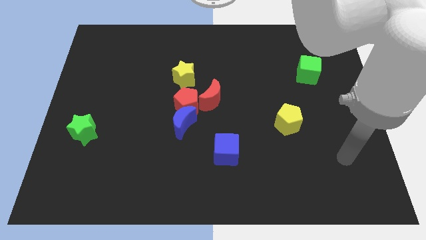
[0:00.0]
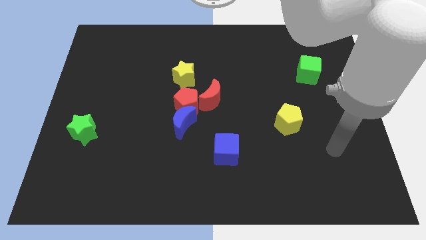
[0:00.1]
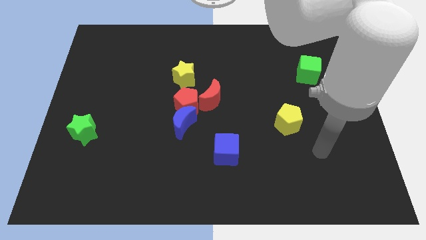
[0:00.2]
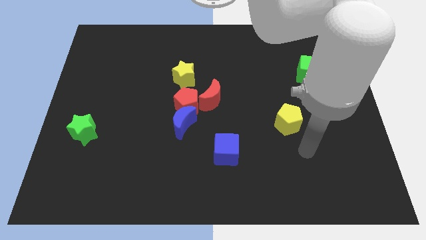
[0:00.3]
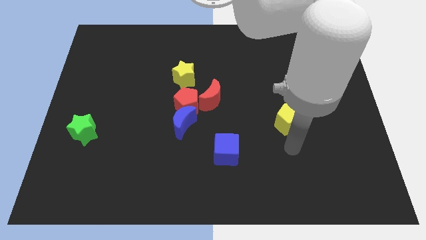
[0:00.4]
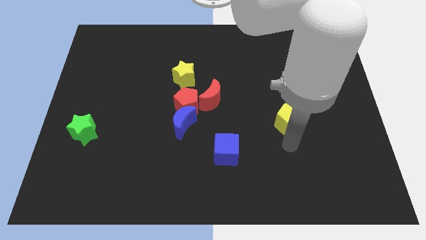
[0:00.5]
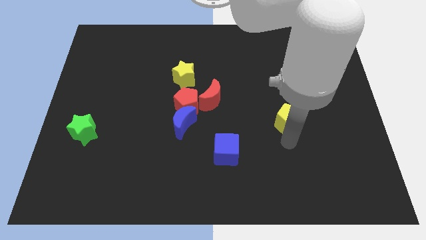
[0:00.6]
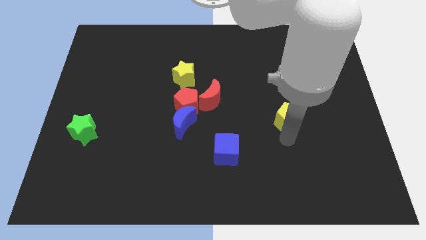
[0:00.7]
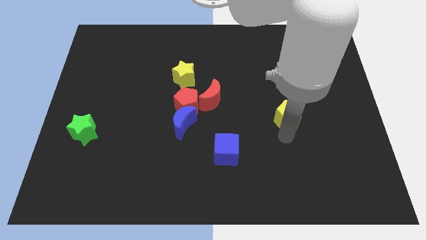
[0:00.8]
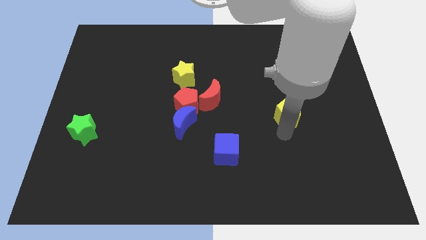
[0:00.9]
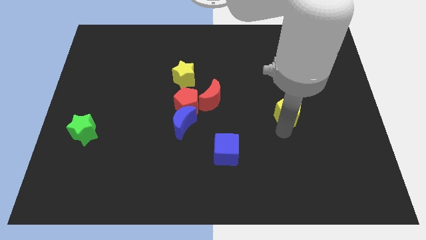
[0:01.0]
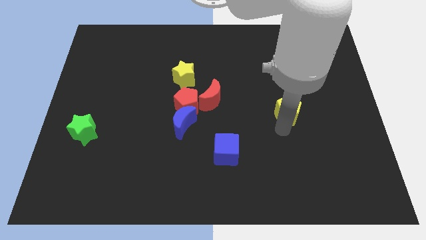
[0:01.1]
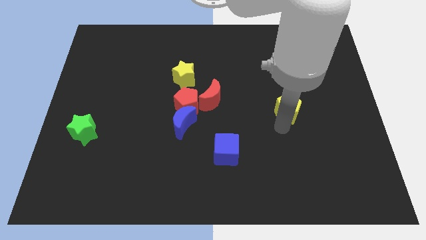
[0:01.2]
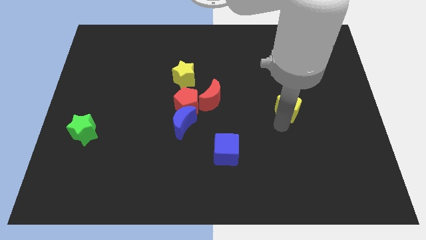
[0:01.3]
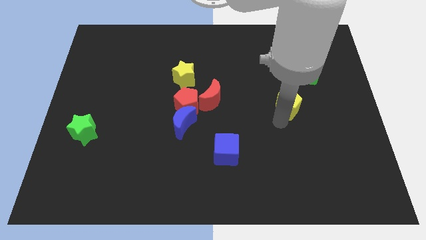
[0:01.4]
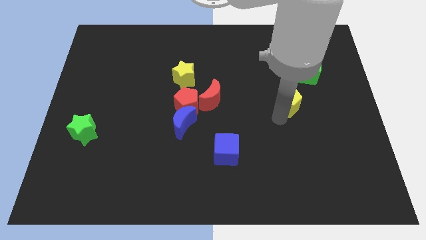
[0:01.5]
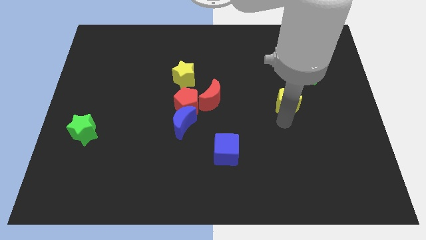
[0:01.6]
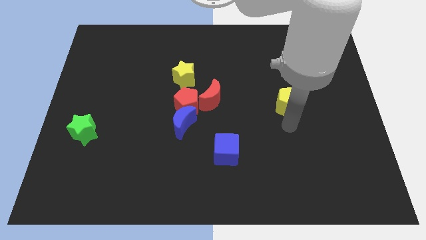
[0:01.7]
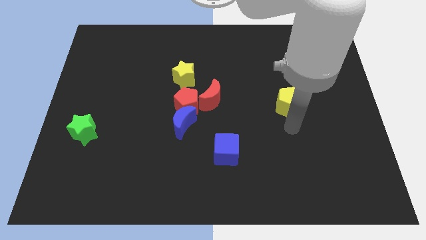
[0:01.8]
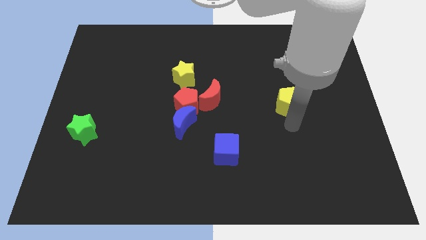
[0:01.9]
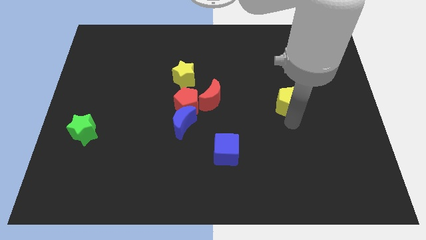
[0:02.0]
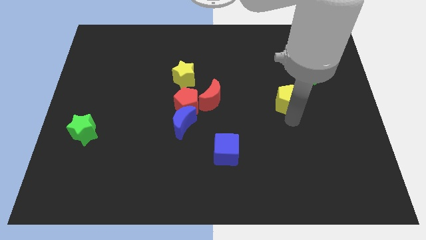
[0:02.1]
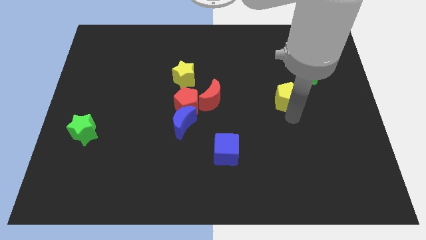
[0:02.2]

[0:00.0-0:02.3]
move the yellow pentagon up a little bit

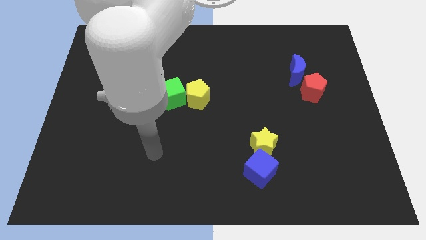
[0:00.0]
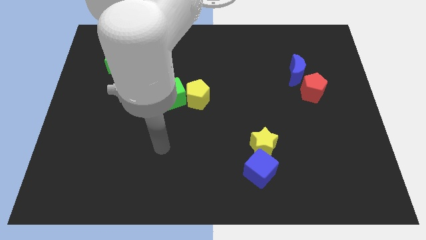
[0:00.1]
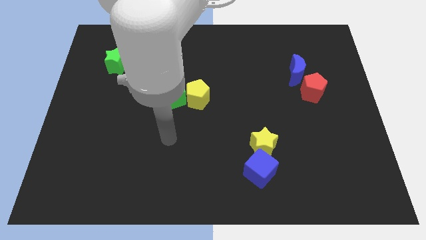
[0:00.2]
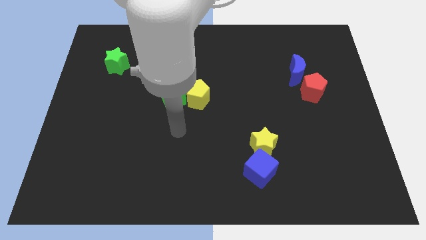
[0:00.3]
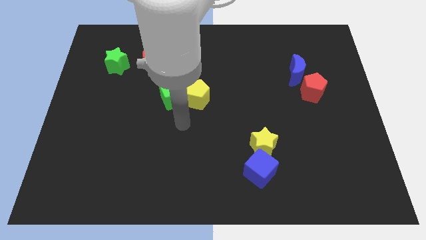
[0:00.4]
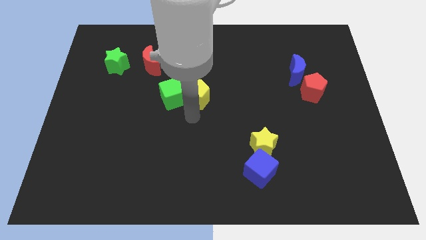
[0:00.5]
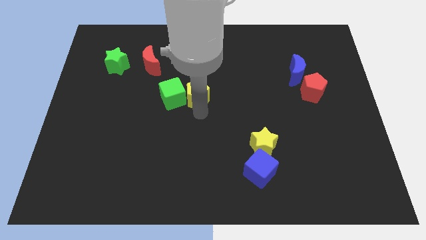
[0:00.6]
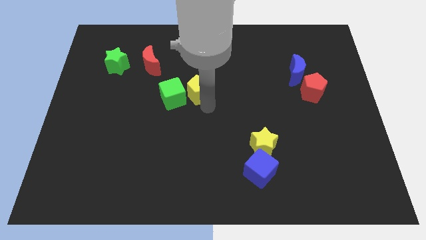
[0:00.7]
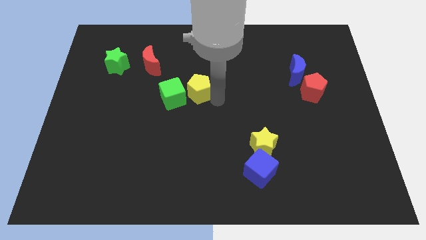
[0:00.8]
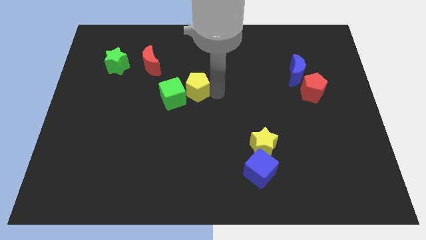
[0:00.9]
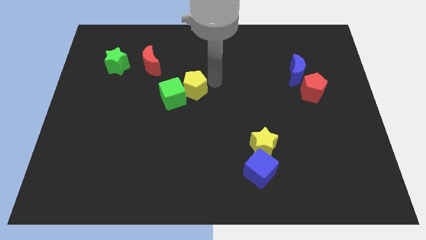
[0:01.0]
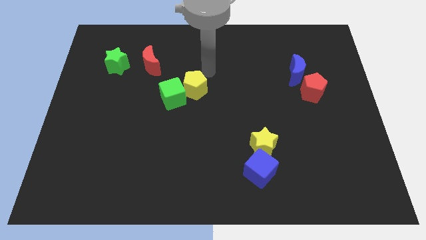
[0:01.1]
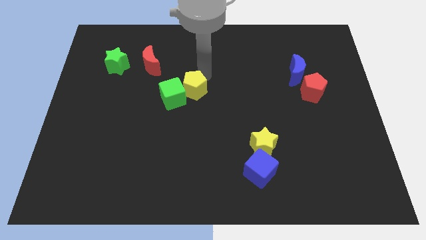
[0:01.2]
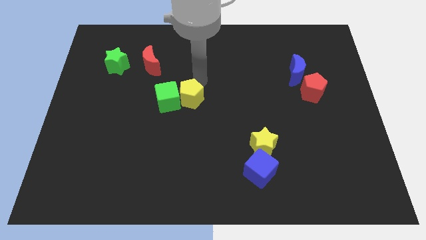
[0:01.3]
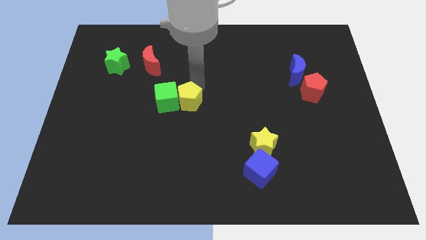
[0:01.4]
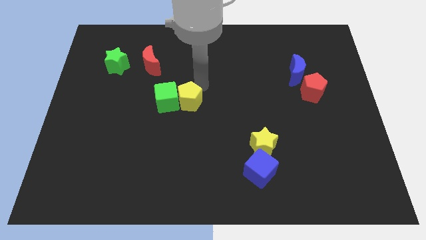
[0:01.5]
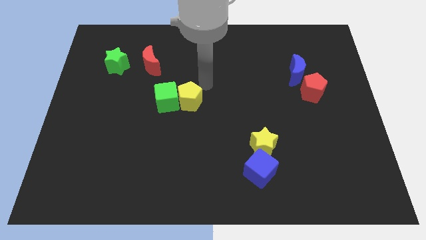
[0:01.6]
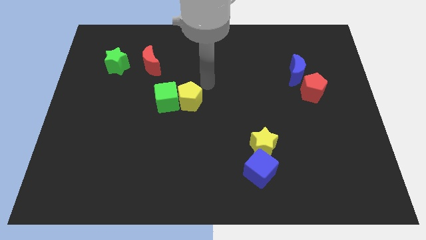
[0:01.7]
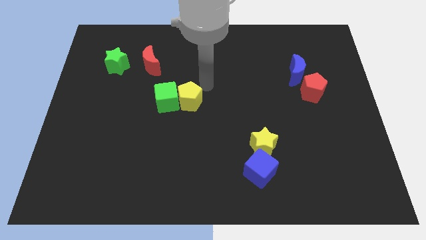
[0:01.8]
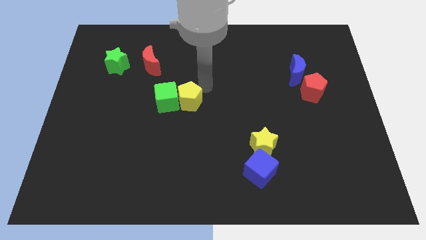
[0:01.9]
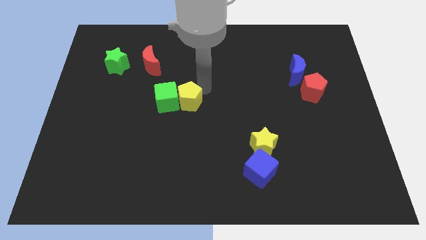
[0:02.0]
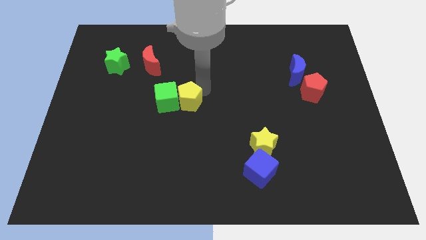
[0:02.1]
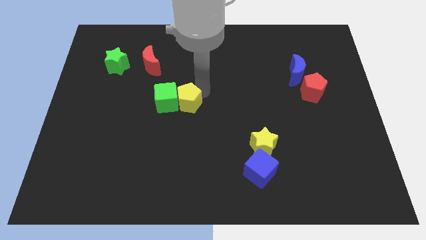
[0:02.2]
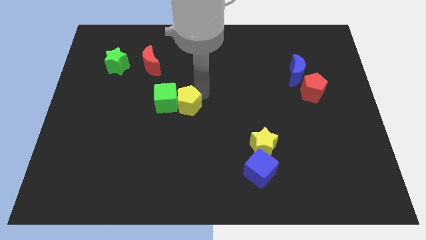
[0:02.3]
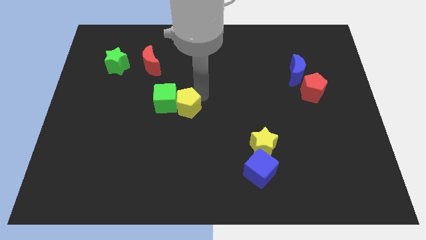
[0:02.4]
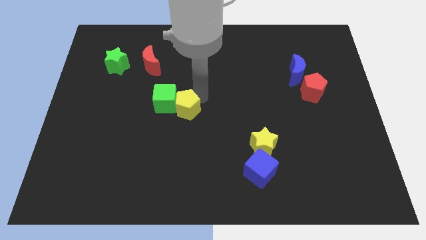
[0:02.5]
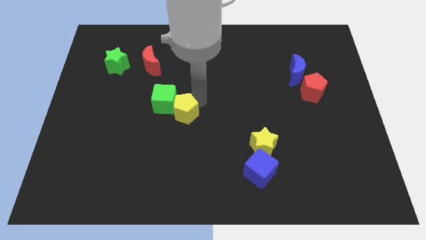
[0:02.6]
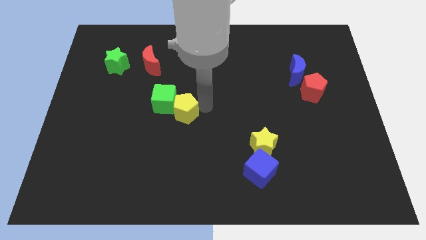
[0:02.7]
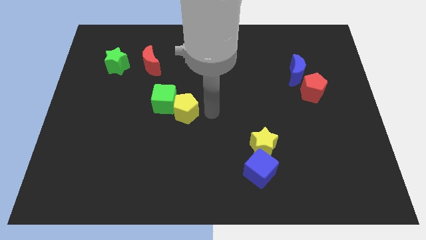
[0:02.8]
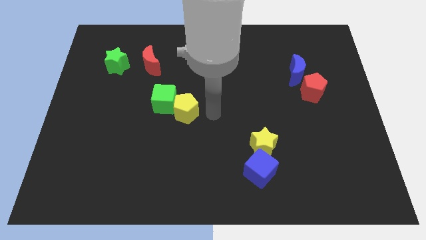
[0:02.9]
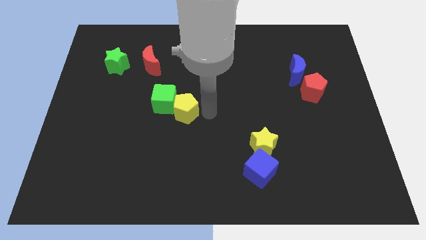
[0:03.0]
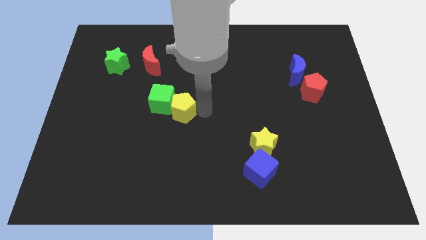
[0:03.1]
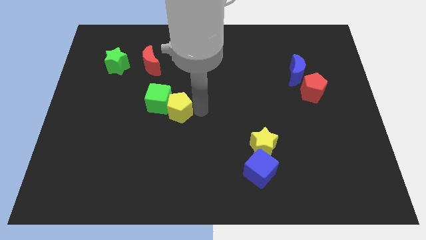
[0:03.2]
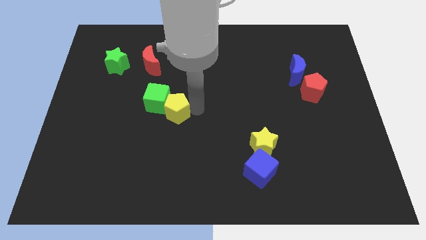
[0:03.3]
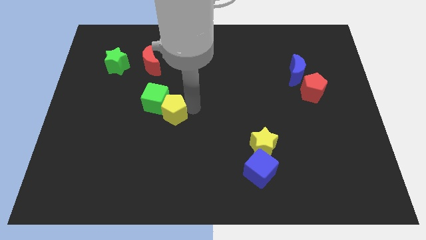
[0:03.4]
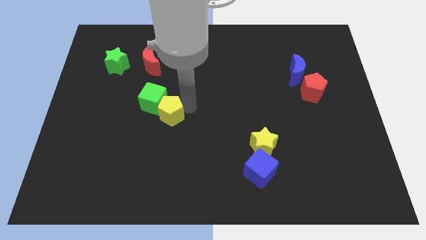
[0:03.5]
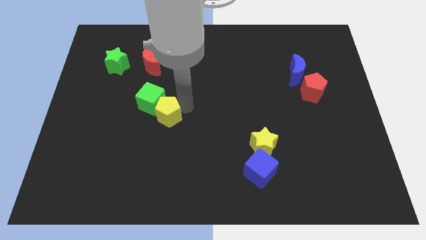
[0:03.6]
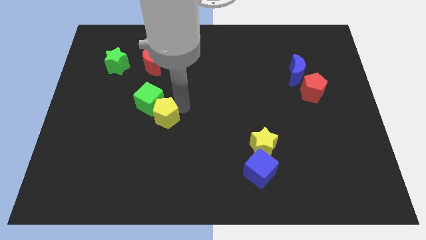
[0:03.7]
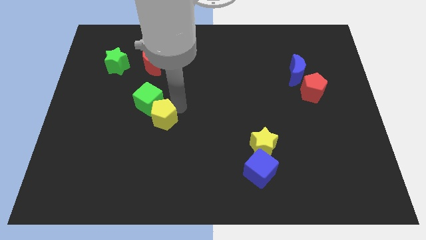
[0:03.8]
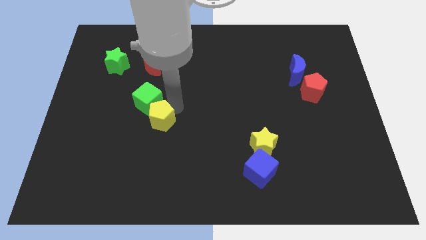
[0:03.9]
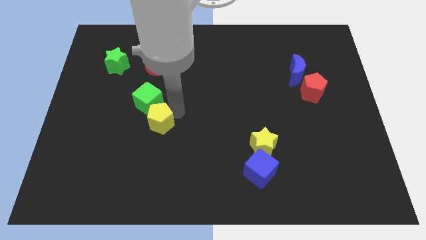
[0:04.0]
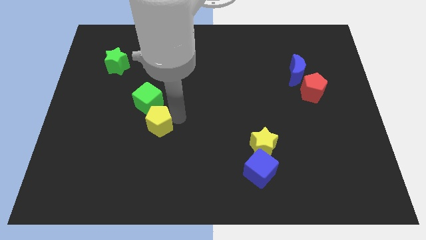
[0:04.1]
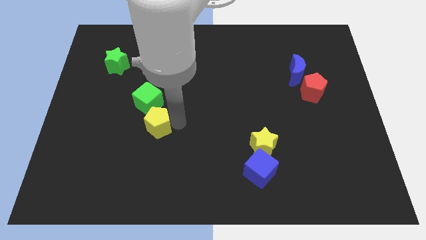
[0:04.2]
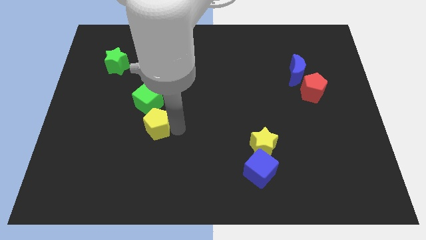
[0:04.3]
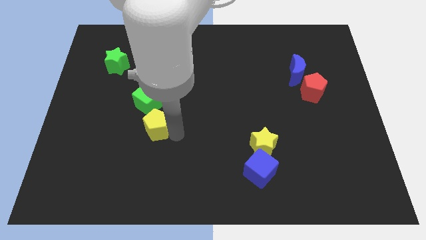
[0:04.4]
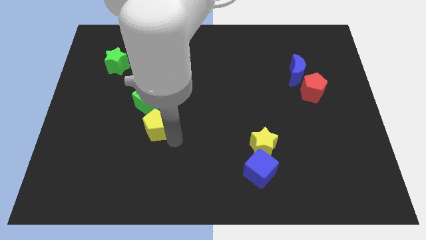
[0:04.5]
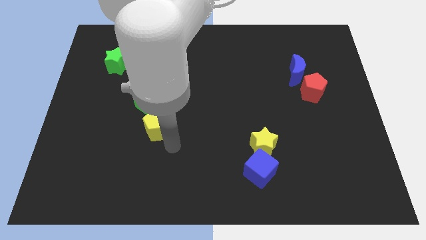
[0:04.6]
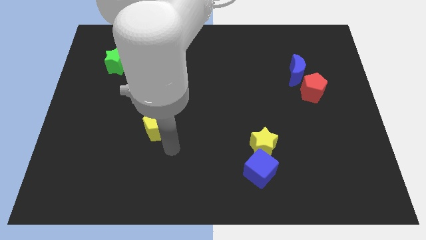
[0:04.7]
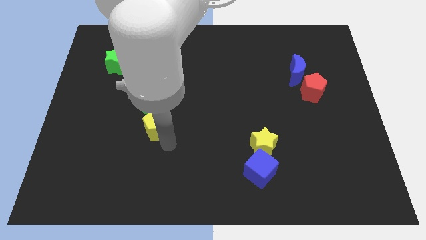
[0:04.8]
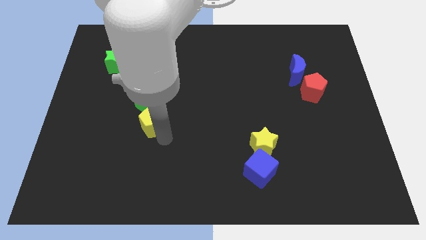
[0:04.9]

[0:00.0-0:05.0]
move the yellow pentagon left somewhat

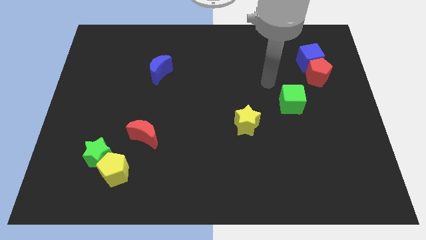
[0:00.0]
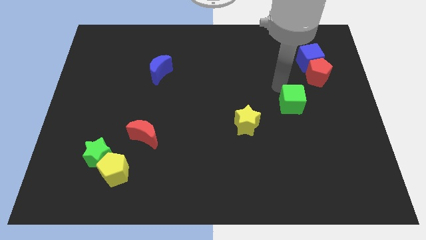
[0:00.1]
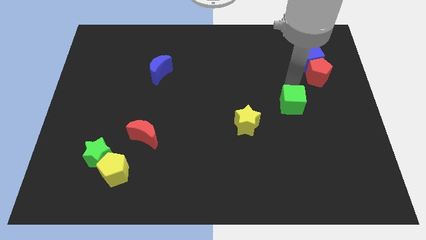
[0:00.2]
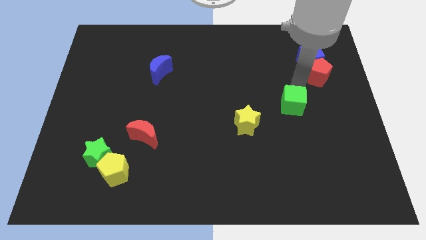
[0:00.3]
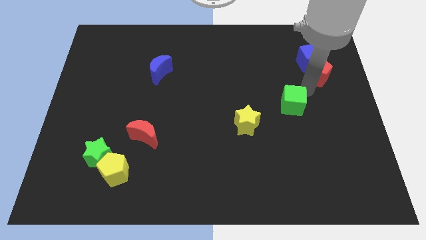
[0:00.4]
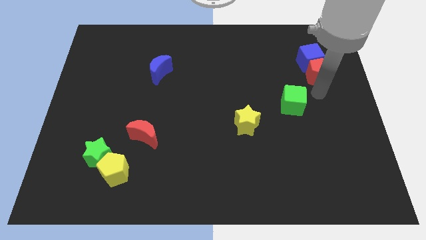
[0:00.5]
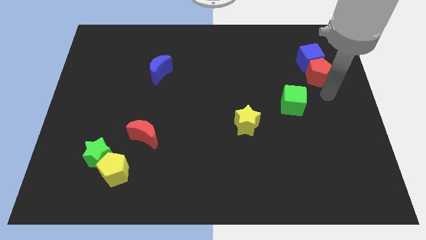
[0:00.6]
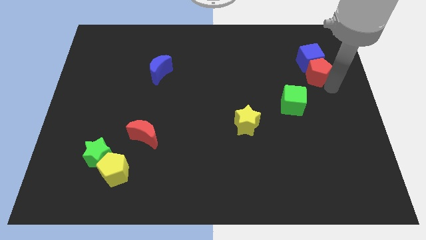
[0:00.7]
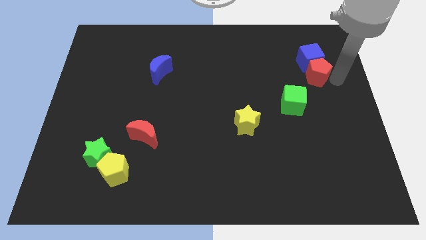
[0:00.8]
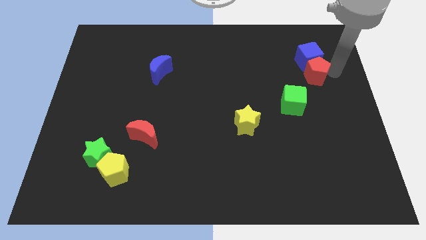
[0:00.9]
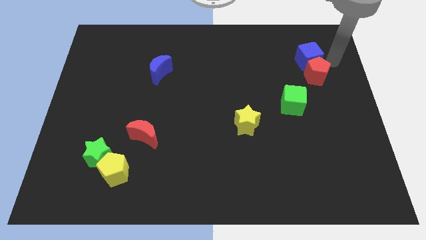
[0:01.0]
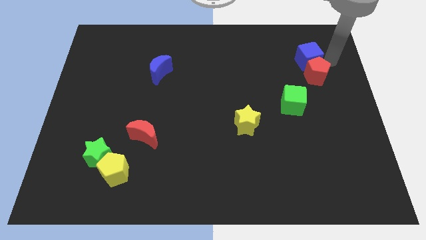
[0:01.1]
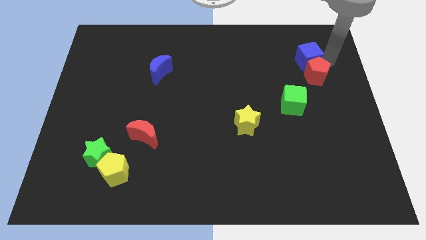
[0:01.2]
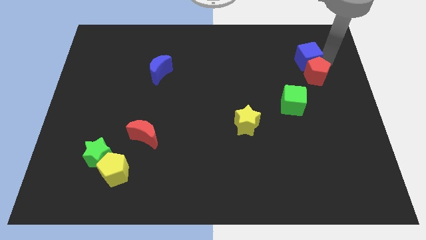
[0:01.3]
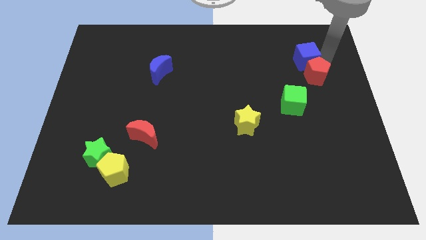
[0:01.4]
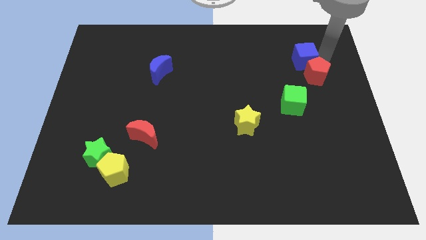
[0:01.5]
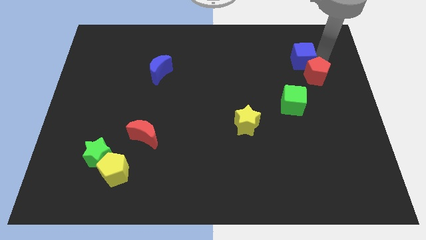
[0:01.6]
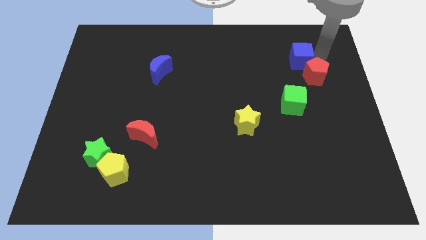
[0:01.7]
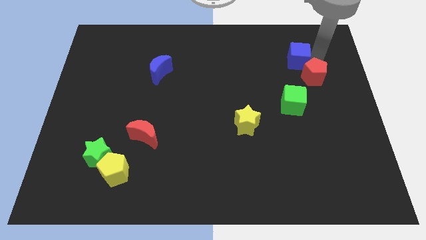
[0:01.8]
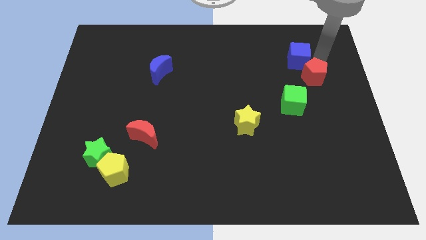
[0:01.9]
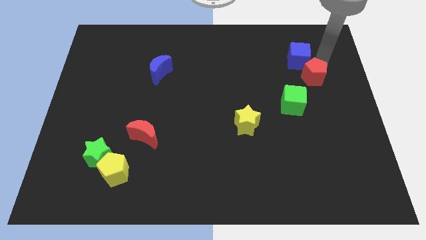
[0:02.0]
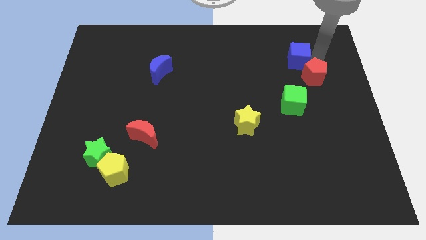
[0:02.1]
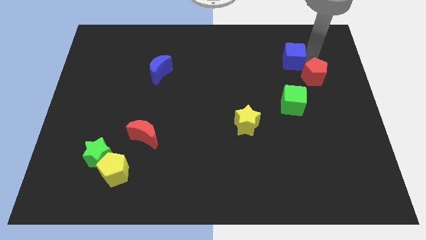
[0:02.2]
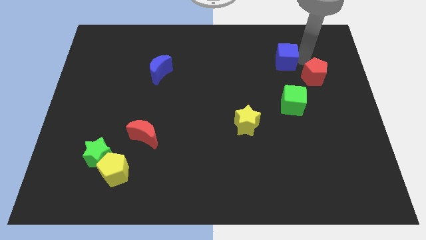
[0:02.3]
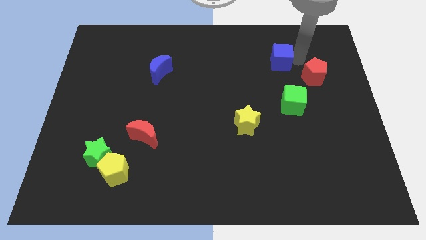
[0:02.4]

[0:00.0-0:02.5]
move the blue cube a little bit to the left
